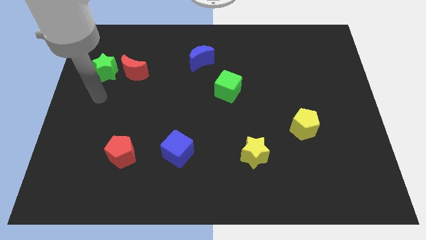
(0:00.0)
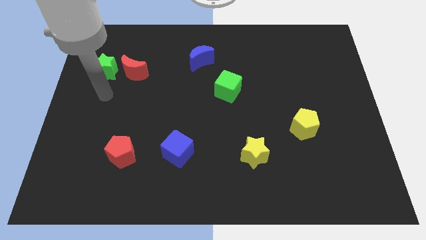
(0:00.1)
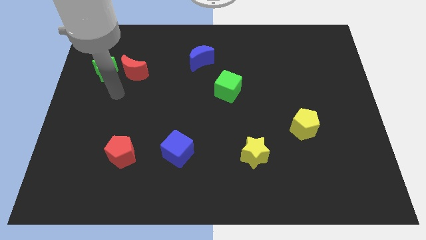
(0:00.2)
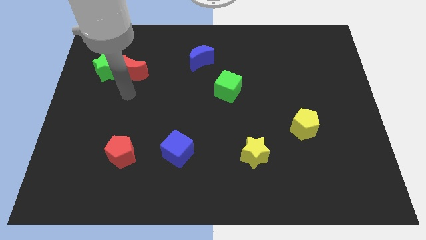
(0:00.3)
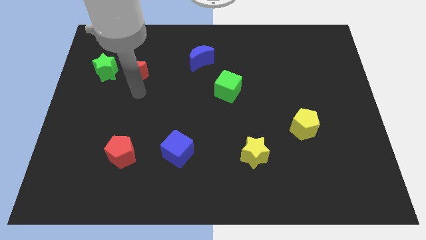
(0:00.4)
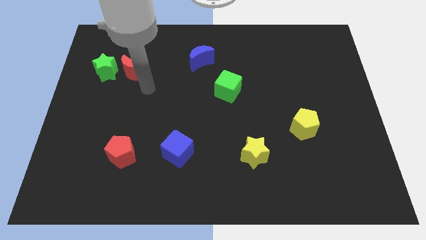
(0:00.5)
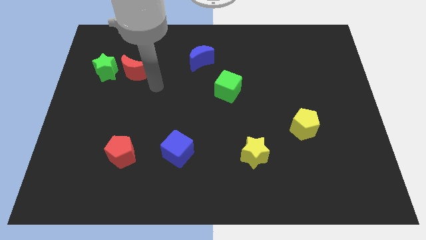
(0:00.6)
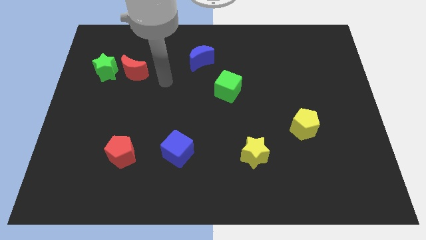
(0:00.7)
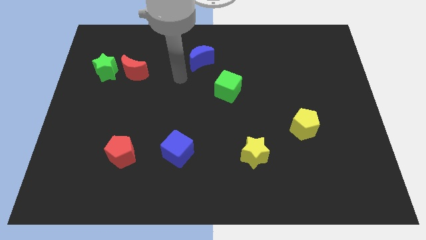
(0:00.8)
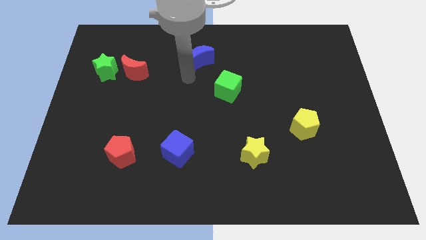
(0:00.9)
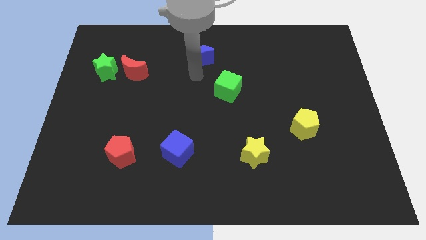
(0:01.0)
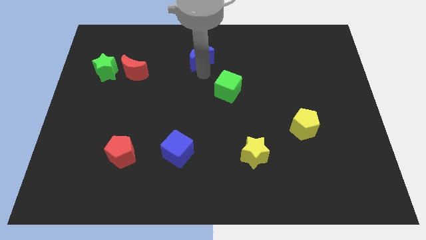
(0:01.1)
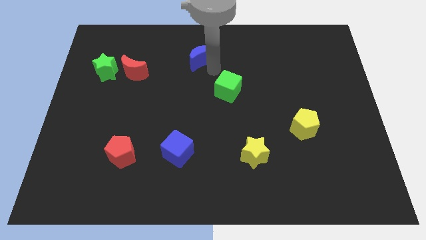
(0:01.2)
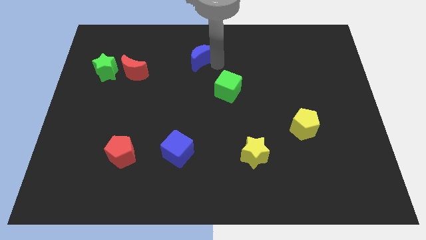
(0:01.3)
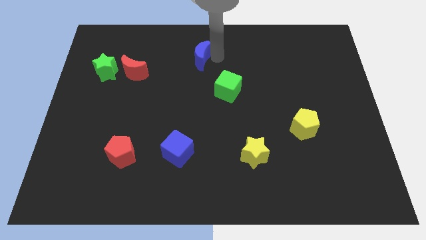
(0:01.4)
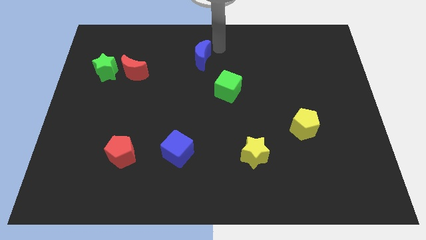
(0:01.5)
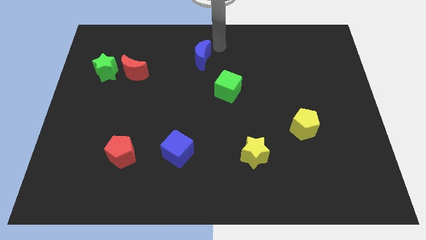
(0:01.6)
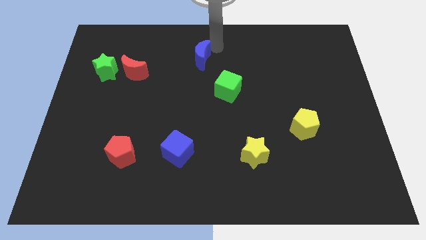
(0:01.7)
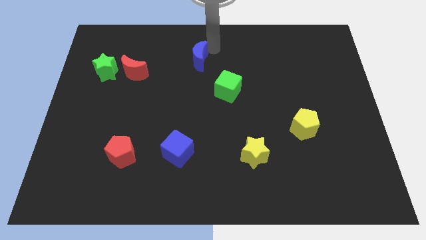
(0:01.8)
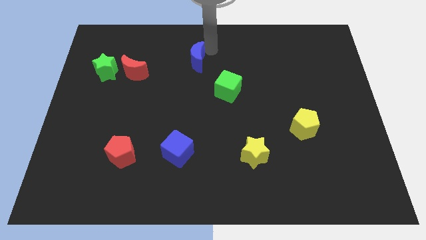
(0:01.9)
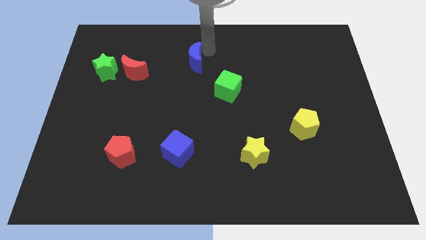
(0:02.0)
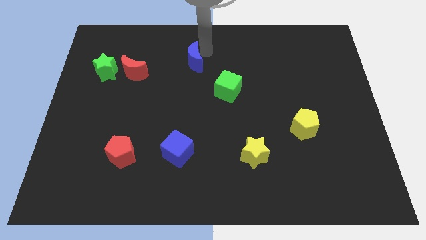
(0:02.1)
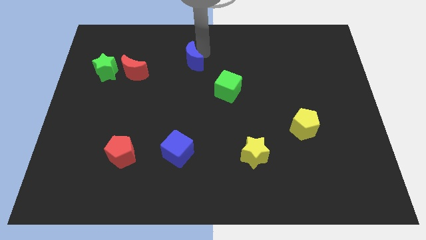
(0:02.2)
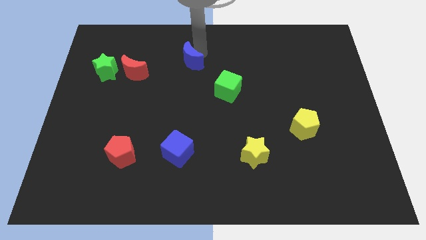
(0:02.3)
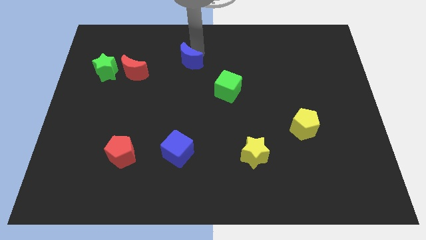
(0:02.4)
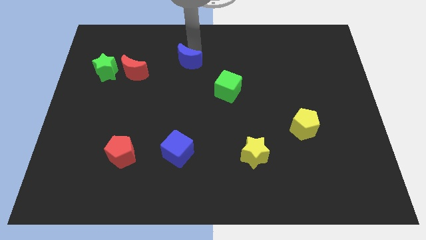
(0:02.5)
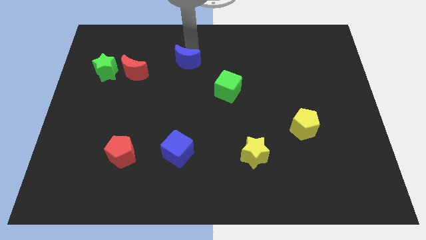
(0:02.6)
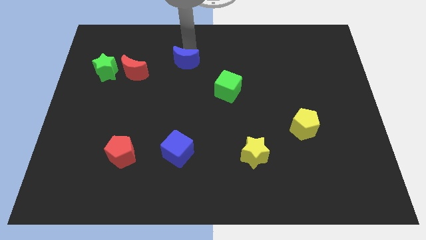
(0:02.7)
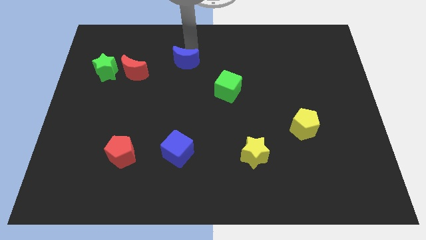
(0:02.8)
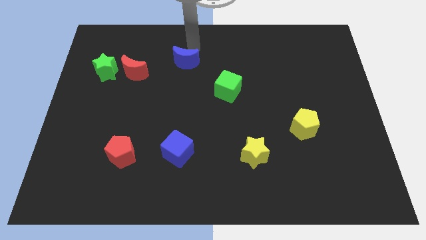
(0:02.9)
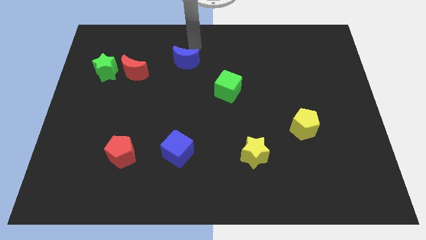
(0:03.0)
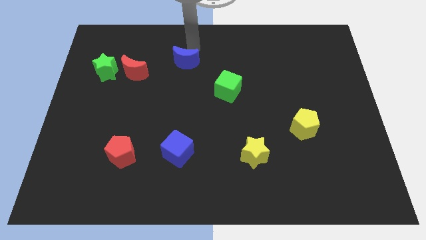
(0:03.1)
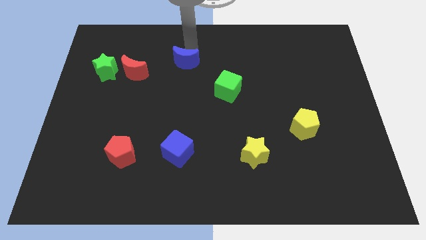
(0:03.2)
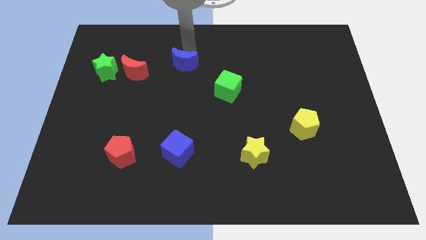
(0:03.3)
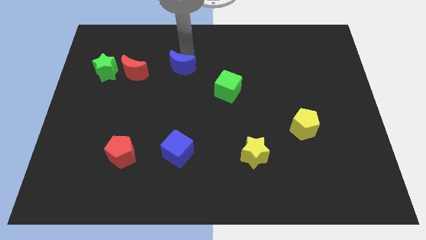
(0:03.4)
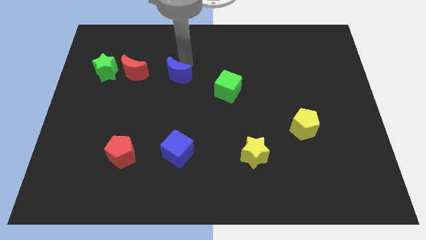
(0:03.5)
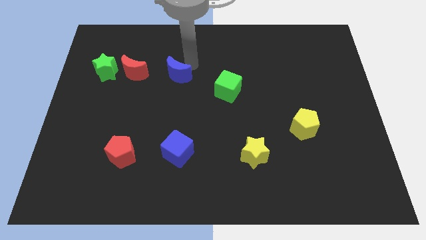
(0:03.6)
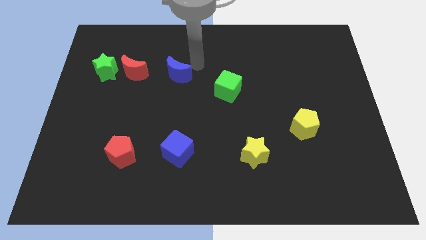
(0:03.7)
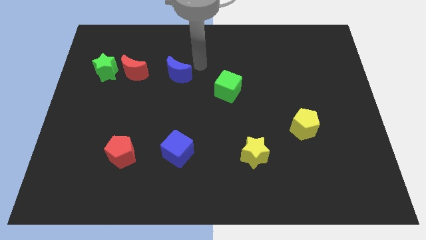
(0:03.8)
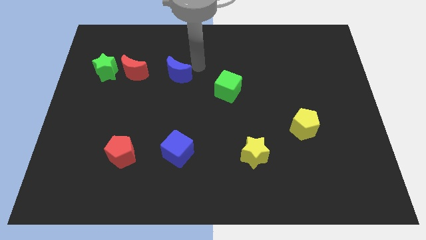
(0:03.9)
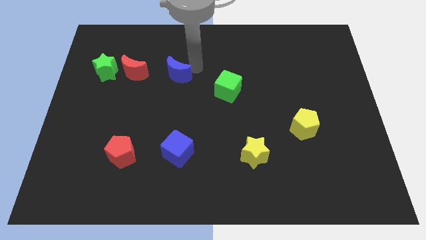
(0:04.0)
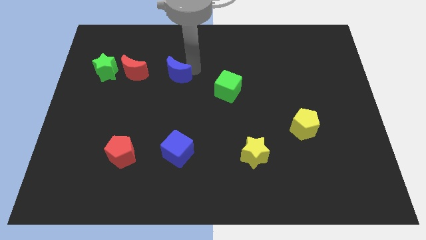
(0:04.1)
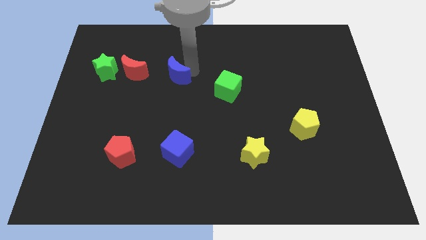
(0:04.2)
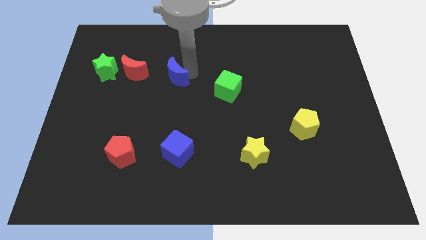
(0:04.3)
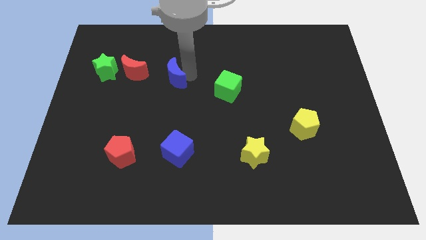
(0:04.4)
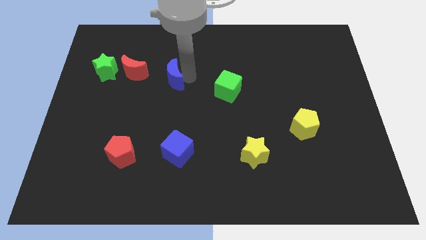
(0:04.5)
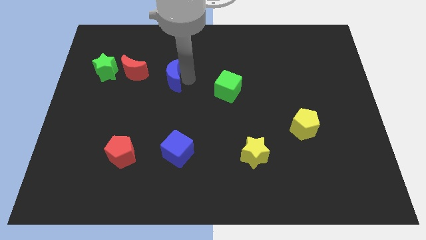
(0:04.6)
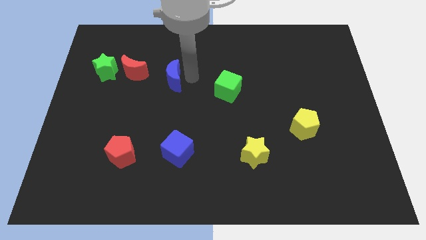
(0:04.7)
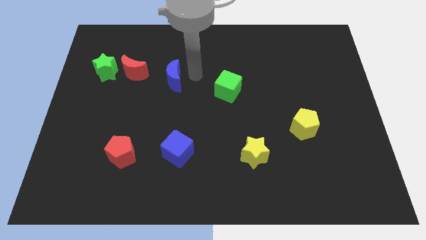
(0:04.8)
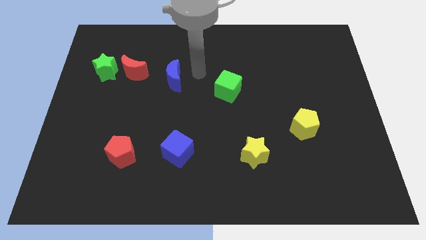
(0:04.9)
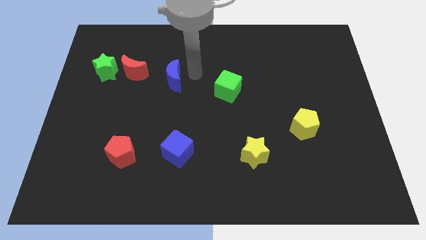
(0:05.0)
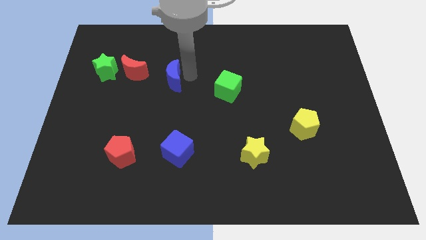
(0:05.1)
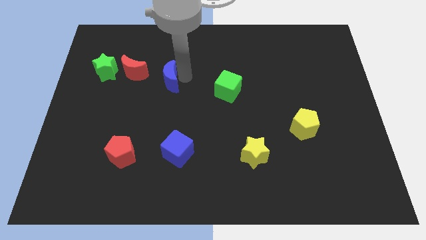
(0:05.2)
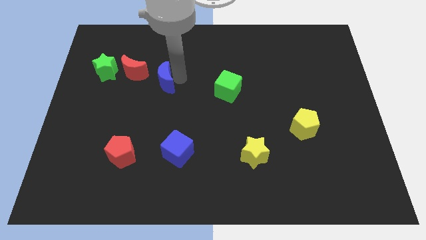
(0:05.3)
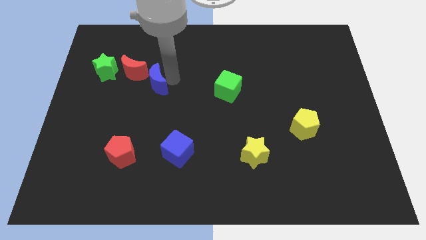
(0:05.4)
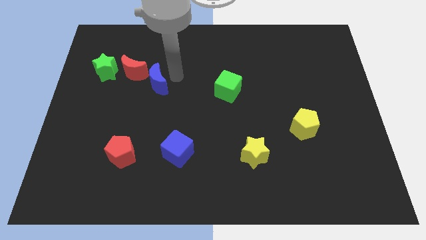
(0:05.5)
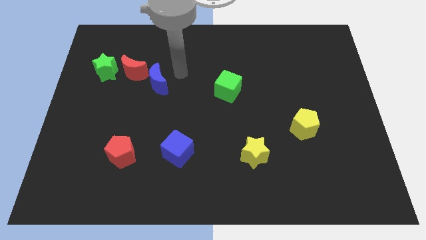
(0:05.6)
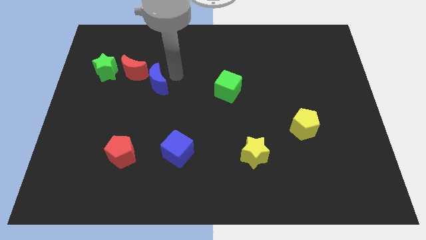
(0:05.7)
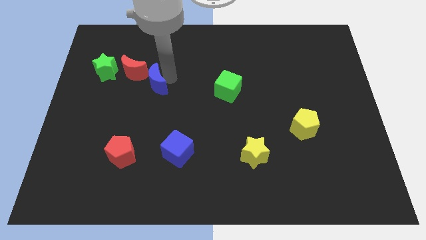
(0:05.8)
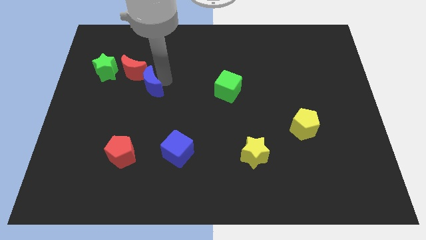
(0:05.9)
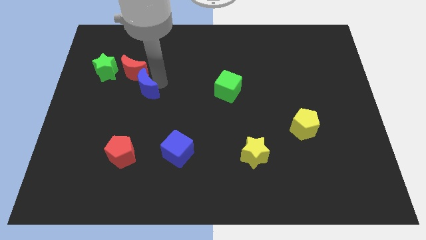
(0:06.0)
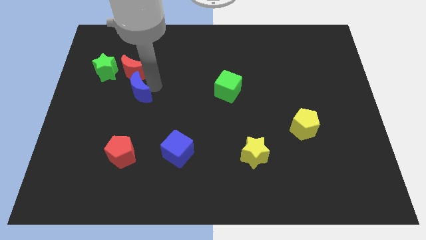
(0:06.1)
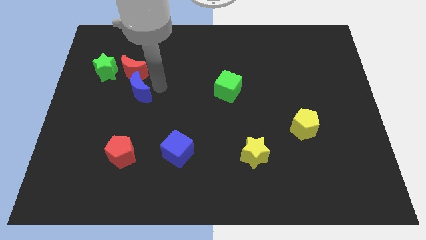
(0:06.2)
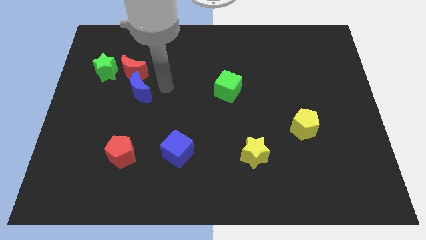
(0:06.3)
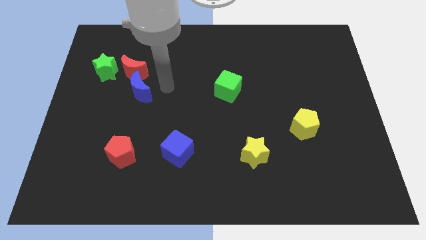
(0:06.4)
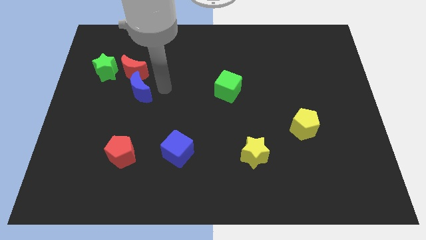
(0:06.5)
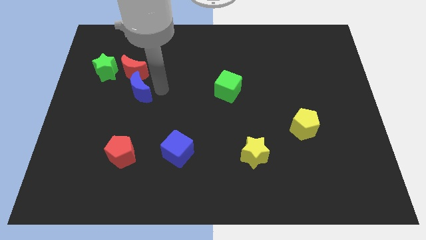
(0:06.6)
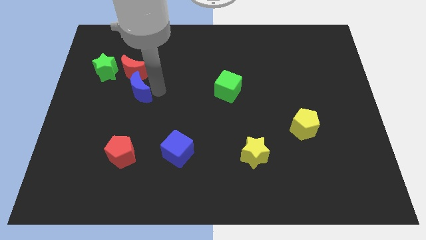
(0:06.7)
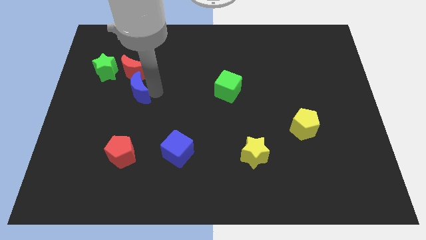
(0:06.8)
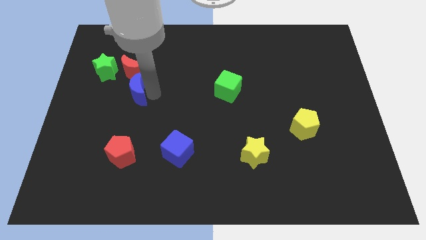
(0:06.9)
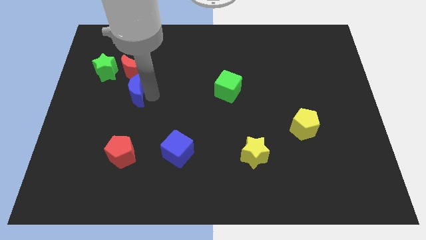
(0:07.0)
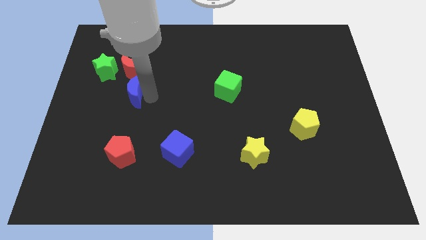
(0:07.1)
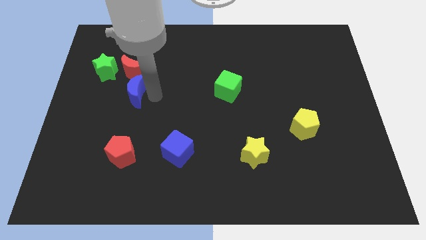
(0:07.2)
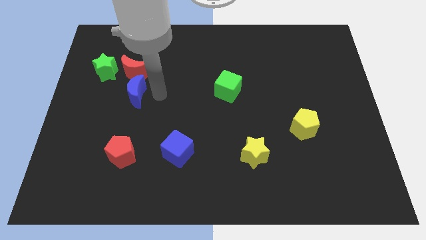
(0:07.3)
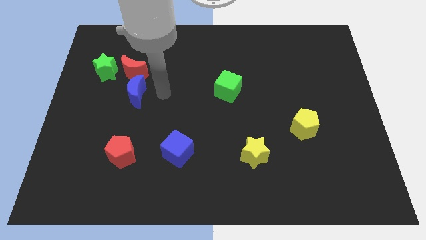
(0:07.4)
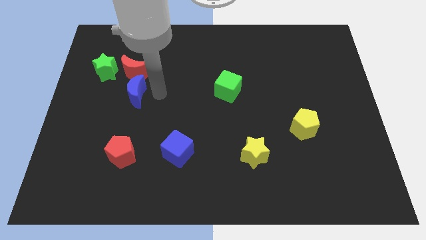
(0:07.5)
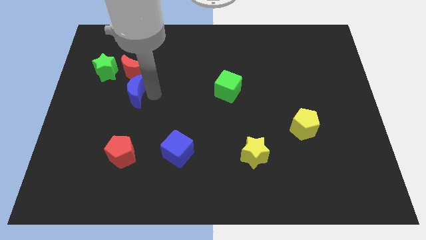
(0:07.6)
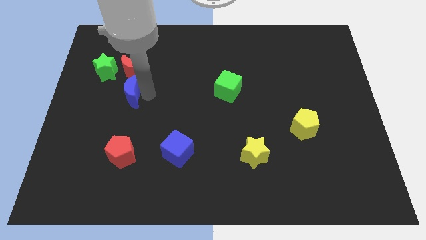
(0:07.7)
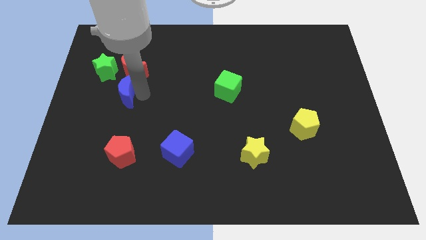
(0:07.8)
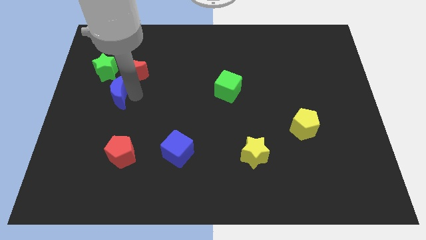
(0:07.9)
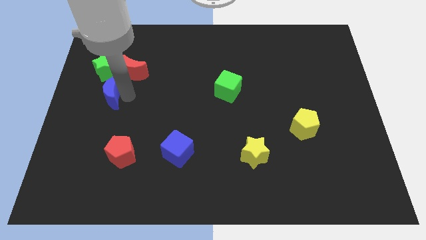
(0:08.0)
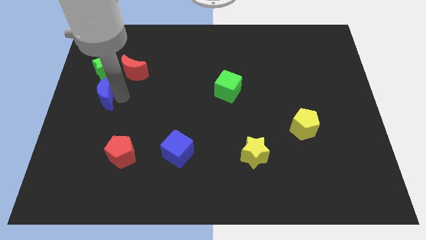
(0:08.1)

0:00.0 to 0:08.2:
push the blue moon to the center left
